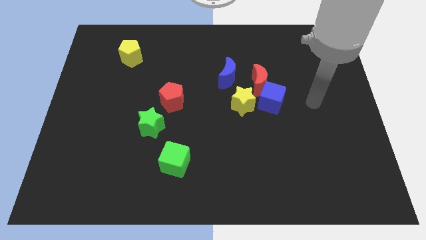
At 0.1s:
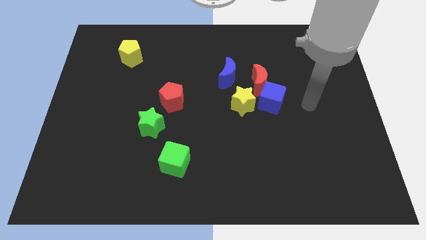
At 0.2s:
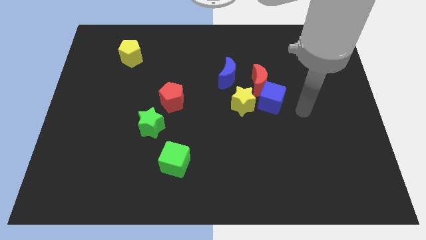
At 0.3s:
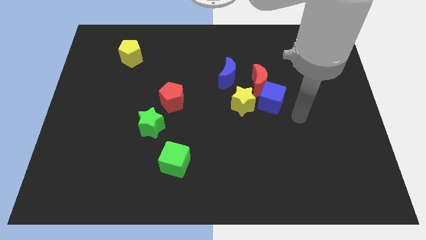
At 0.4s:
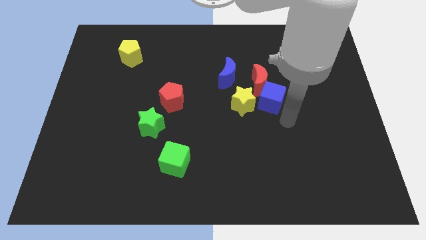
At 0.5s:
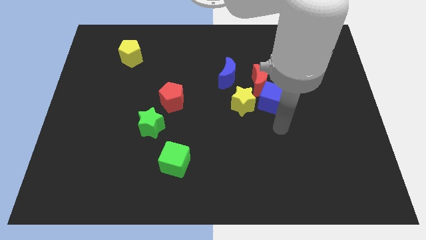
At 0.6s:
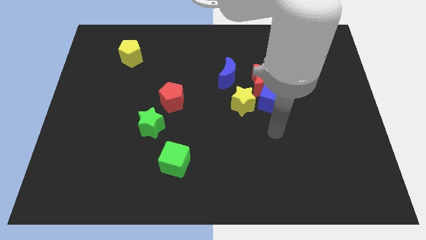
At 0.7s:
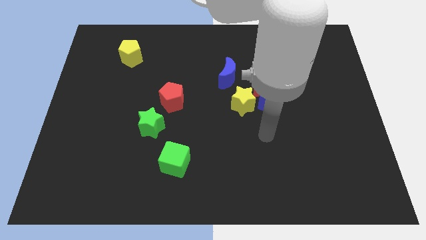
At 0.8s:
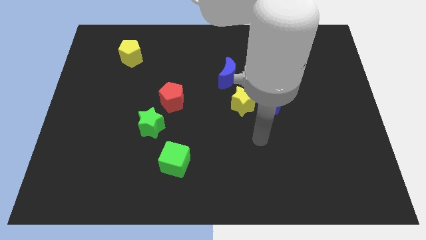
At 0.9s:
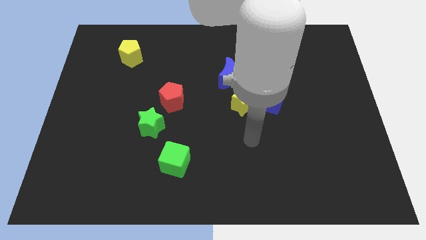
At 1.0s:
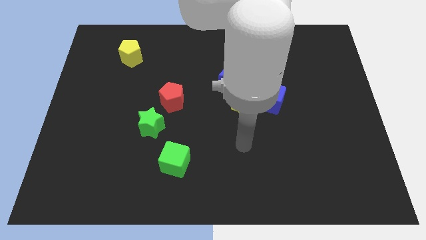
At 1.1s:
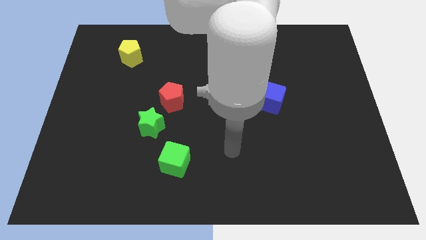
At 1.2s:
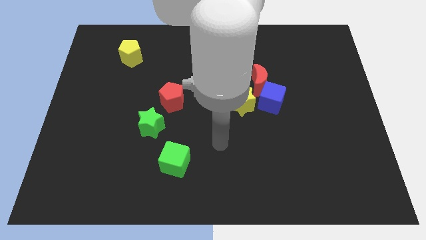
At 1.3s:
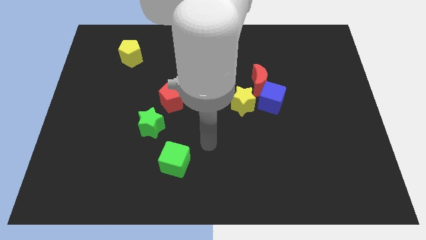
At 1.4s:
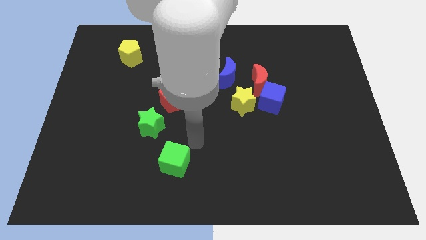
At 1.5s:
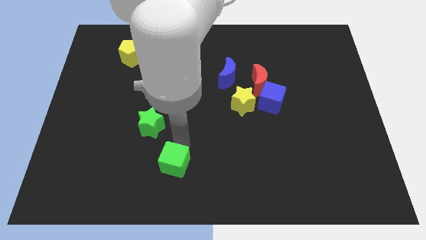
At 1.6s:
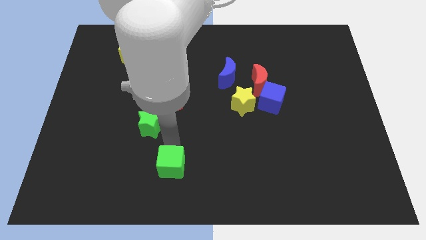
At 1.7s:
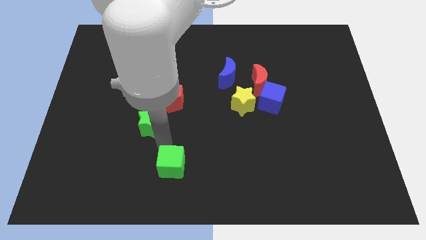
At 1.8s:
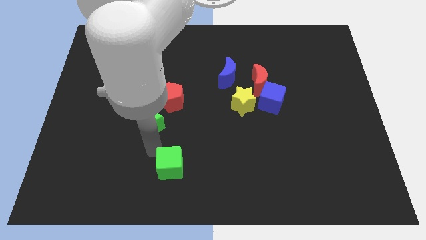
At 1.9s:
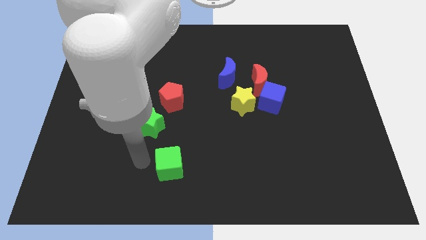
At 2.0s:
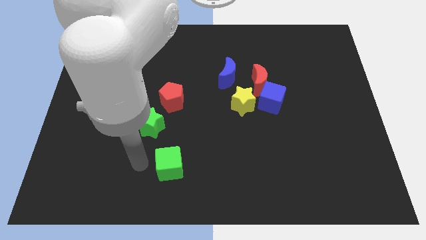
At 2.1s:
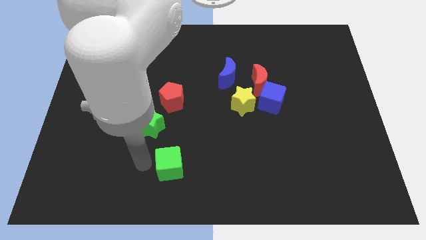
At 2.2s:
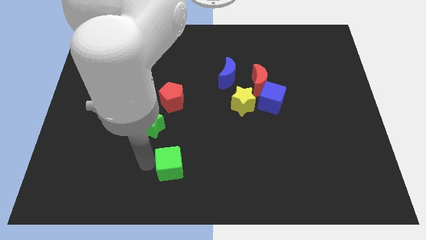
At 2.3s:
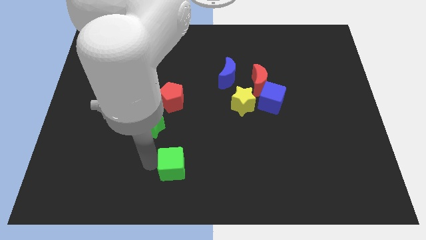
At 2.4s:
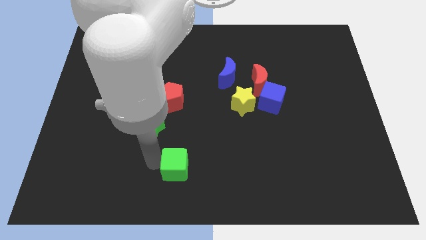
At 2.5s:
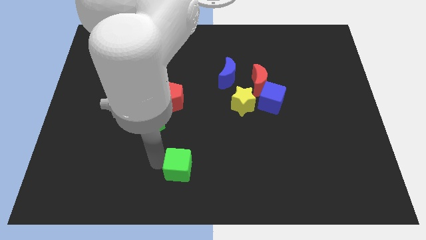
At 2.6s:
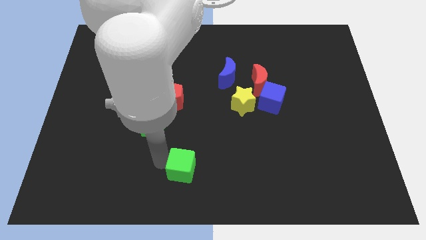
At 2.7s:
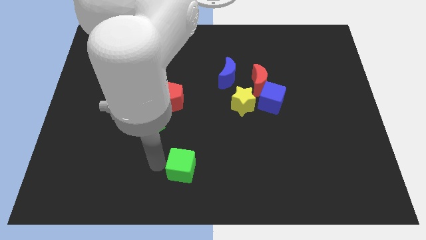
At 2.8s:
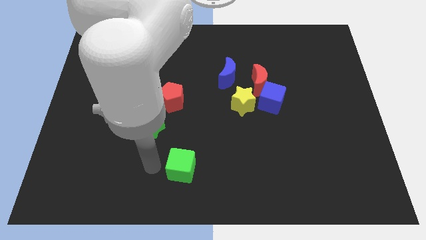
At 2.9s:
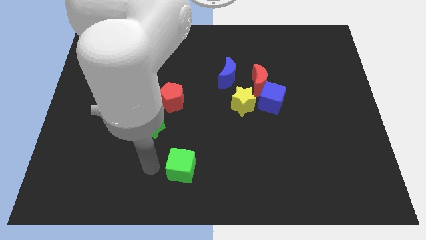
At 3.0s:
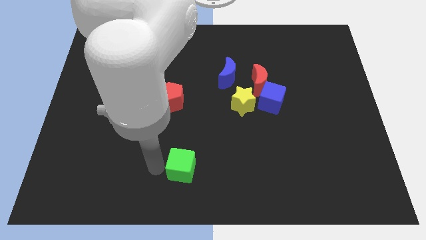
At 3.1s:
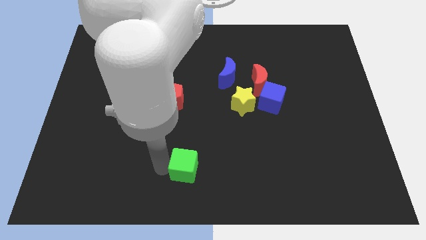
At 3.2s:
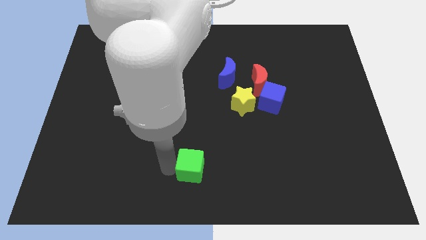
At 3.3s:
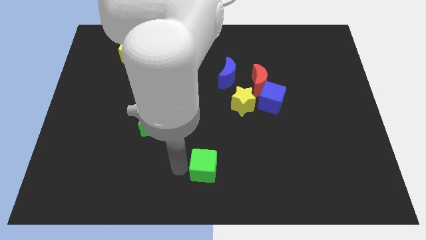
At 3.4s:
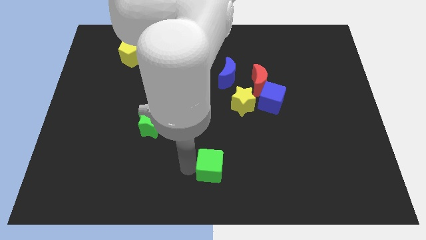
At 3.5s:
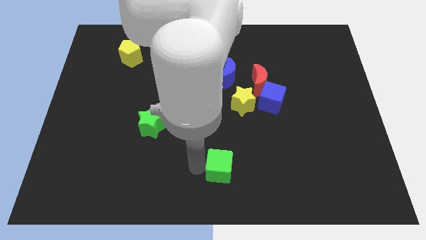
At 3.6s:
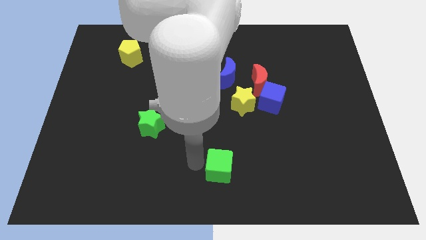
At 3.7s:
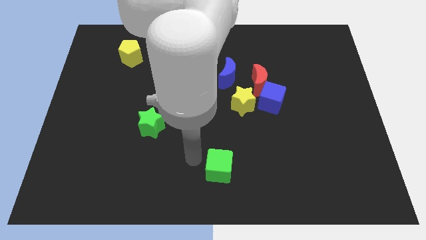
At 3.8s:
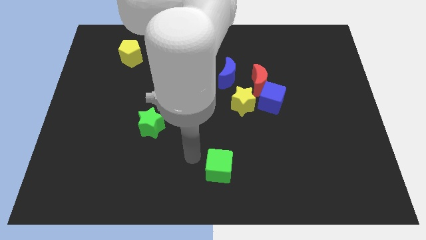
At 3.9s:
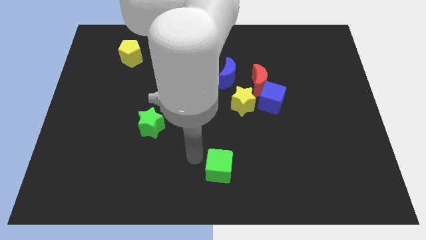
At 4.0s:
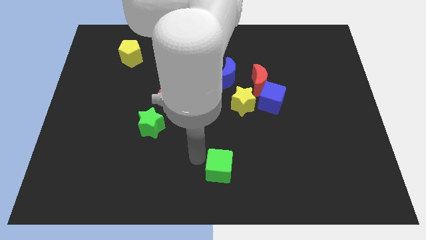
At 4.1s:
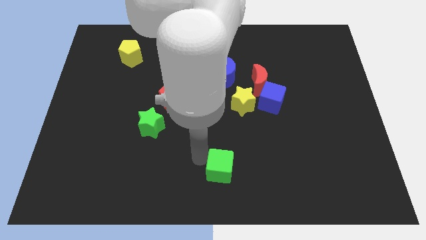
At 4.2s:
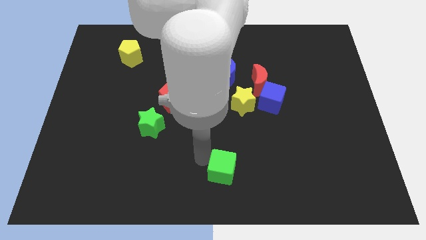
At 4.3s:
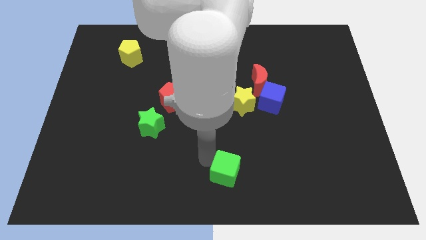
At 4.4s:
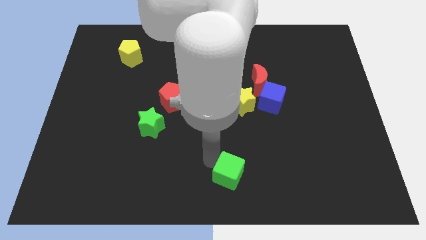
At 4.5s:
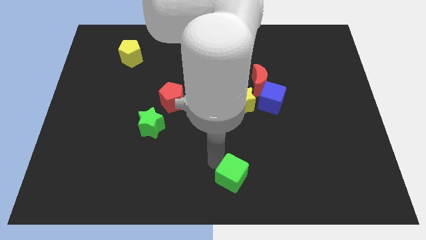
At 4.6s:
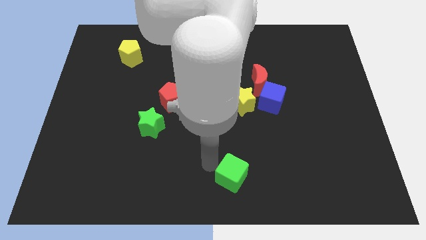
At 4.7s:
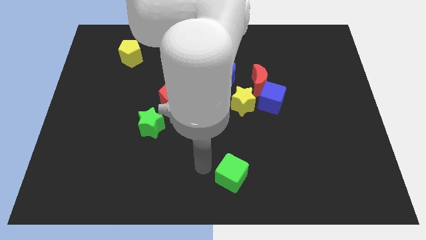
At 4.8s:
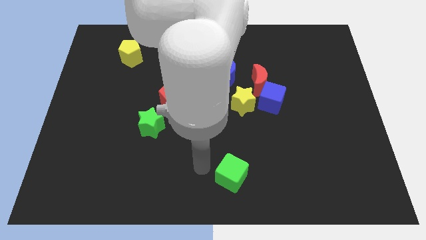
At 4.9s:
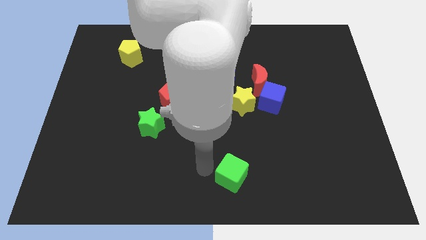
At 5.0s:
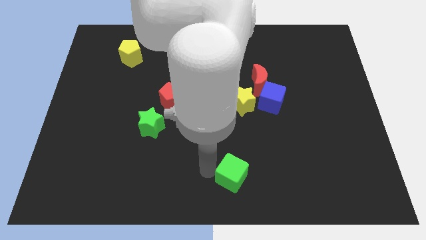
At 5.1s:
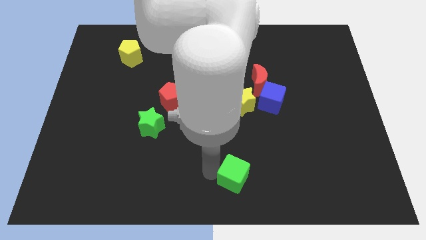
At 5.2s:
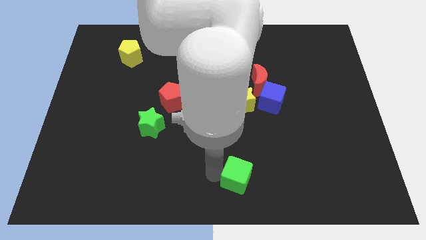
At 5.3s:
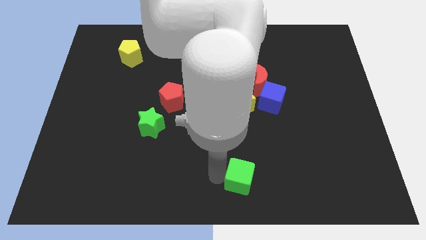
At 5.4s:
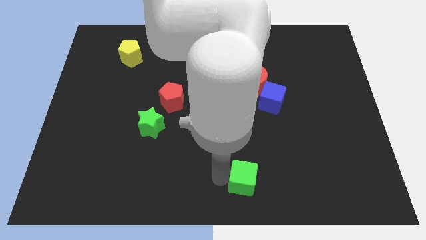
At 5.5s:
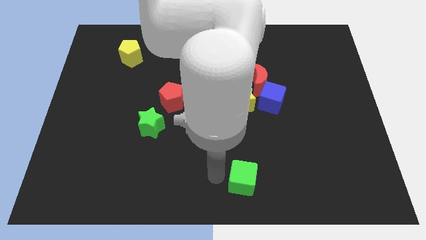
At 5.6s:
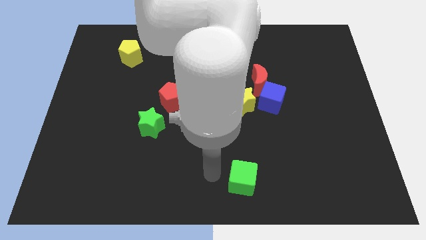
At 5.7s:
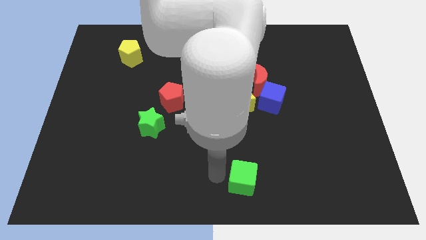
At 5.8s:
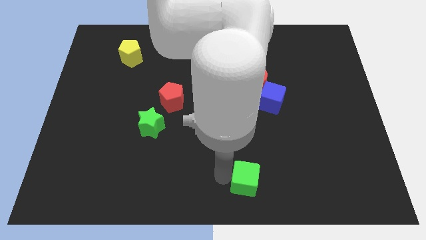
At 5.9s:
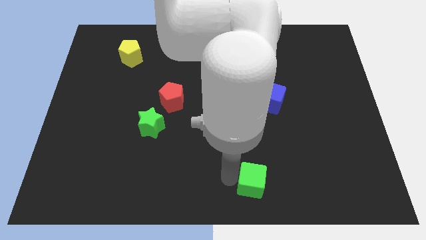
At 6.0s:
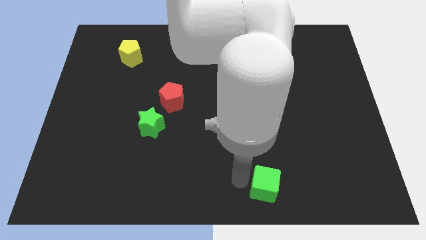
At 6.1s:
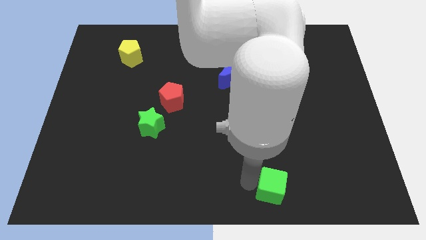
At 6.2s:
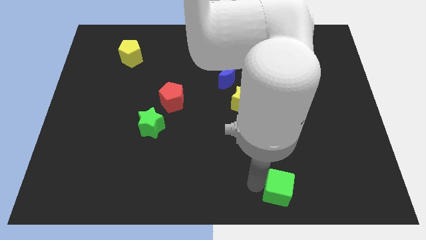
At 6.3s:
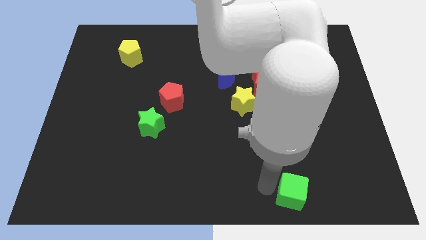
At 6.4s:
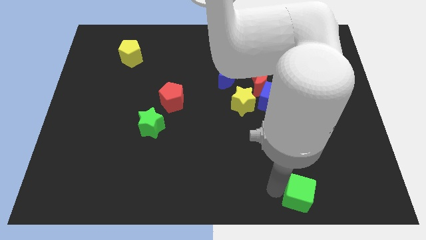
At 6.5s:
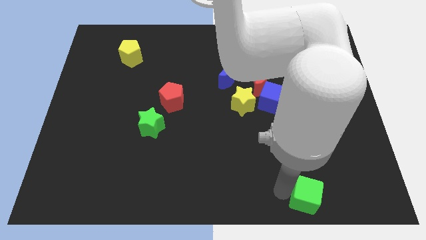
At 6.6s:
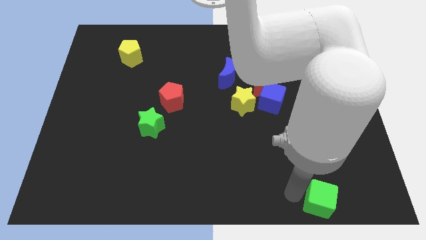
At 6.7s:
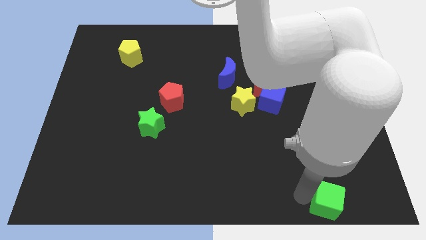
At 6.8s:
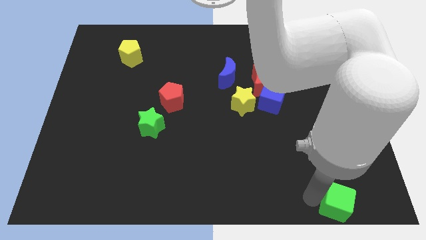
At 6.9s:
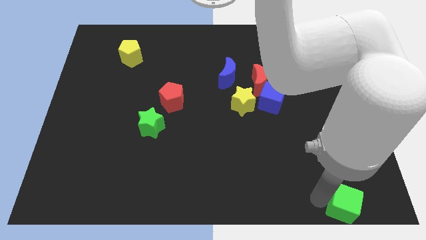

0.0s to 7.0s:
slide the green cube to the bottom right of the board

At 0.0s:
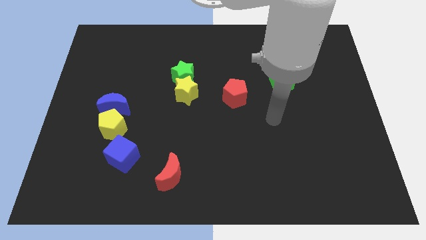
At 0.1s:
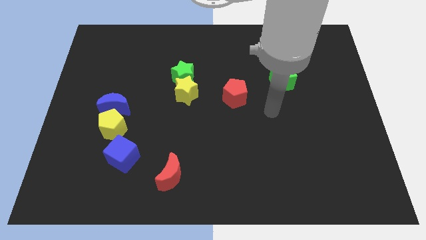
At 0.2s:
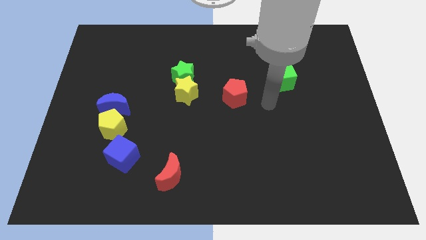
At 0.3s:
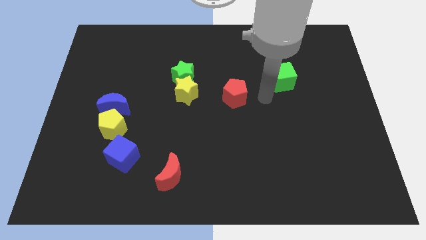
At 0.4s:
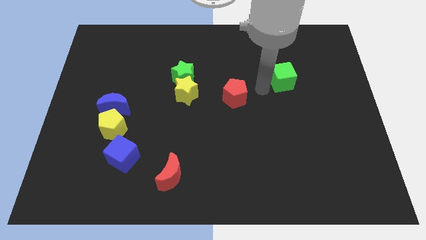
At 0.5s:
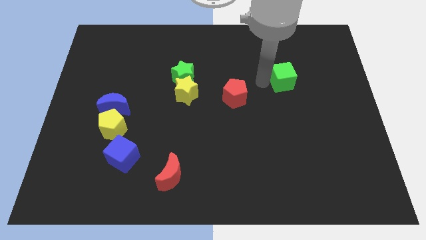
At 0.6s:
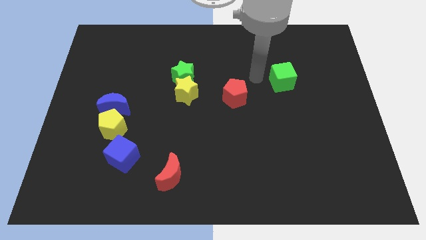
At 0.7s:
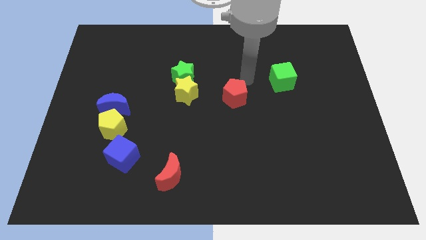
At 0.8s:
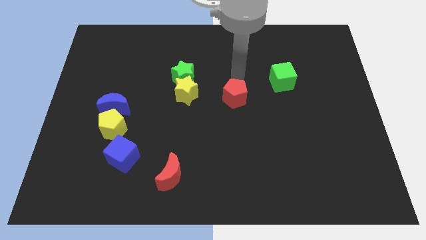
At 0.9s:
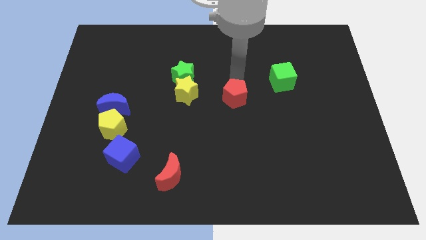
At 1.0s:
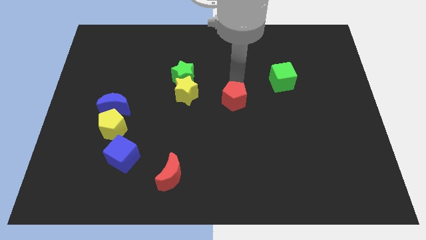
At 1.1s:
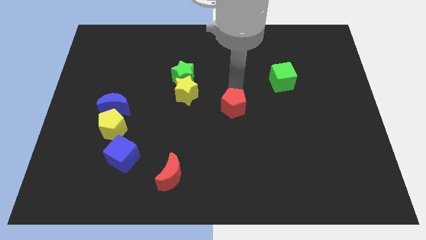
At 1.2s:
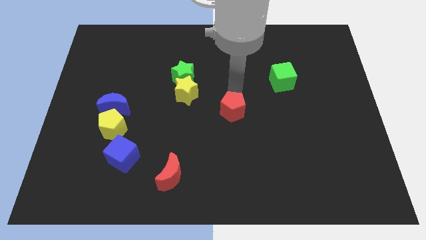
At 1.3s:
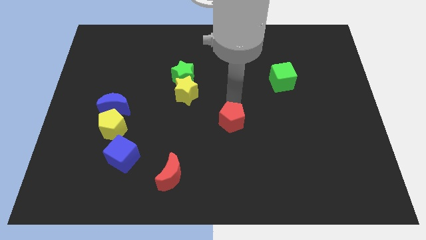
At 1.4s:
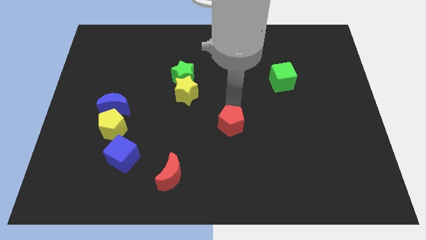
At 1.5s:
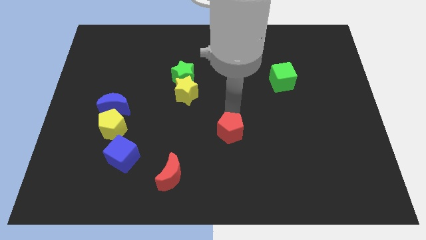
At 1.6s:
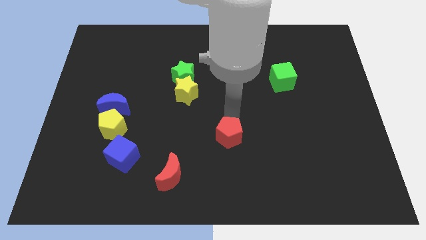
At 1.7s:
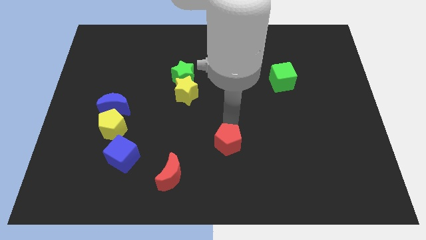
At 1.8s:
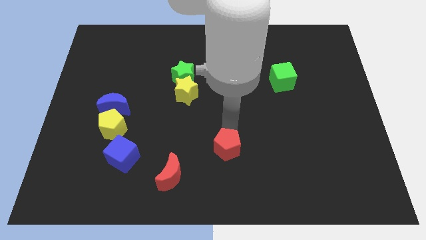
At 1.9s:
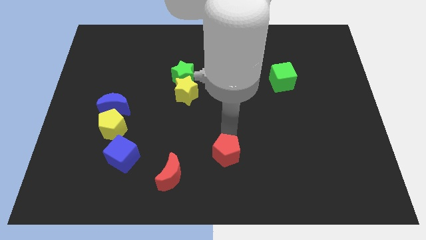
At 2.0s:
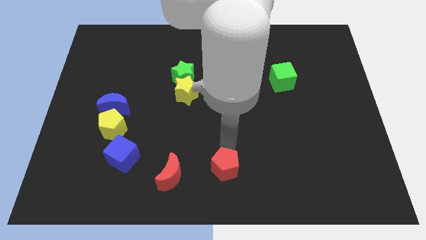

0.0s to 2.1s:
slide the red pentagon to the bottom
